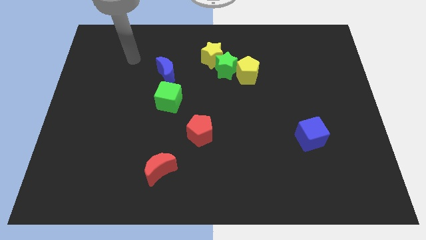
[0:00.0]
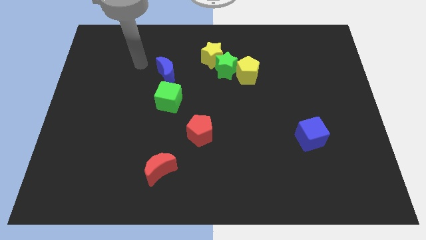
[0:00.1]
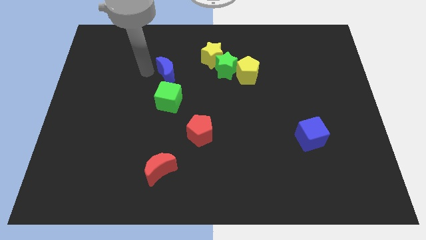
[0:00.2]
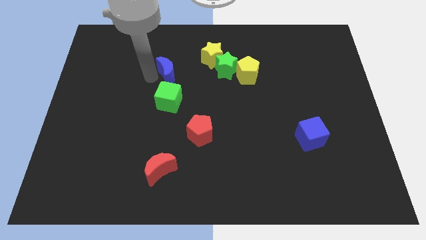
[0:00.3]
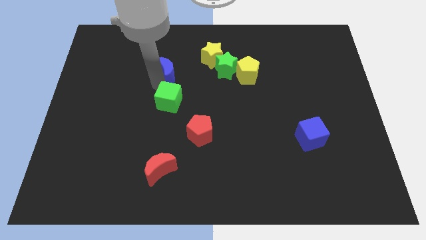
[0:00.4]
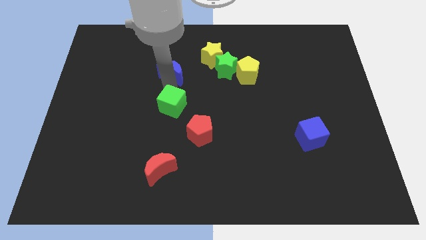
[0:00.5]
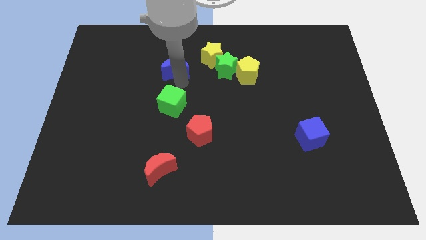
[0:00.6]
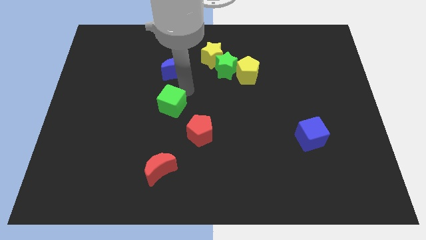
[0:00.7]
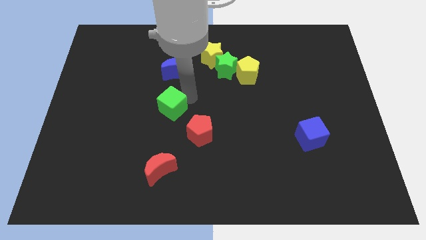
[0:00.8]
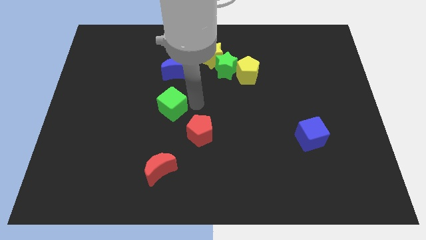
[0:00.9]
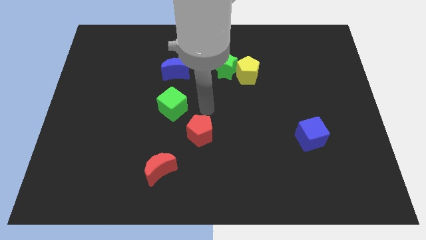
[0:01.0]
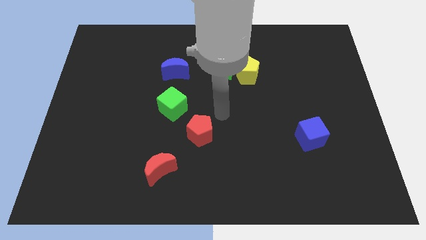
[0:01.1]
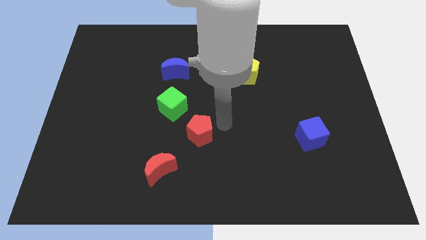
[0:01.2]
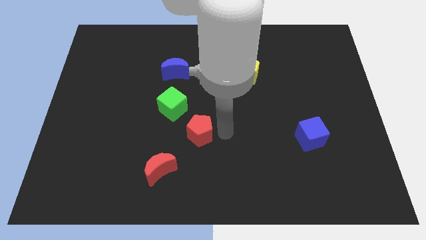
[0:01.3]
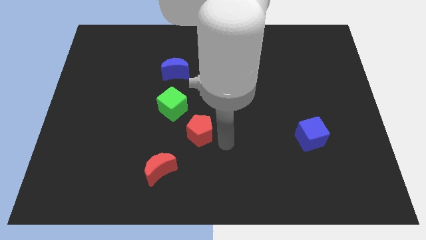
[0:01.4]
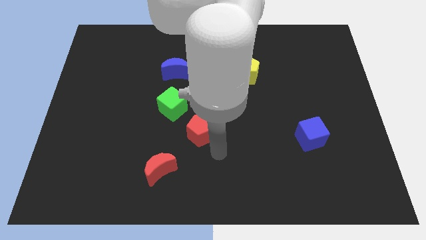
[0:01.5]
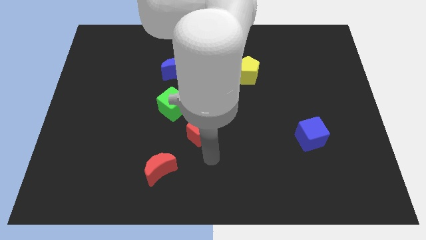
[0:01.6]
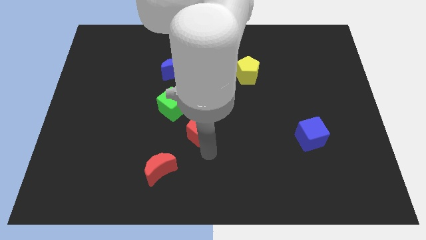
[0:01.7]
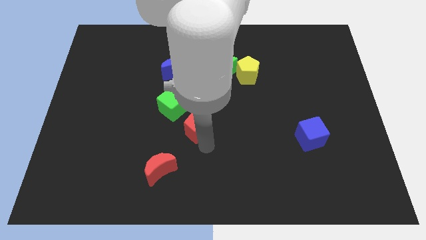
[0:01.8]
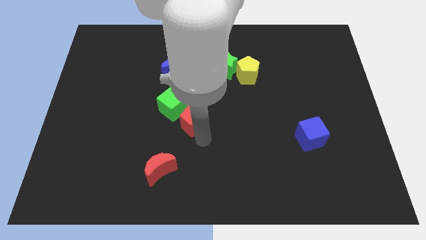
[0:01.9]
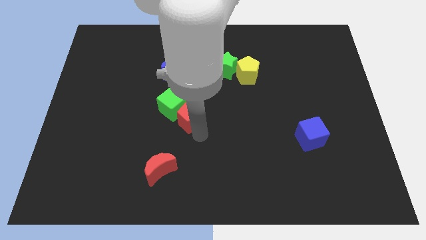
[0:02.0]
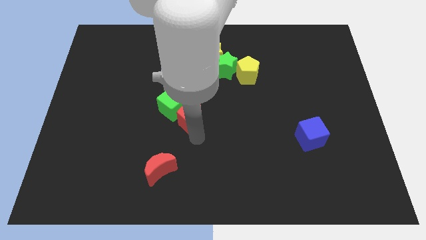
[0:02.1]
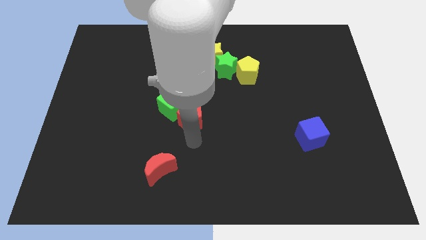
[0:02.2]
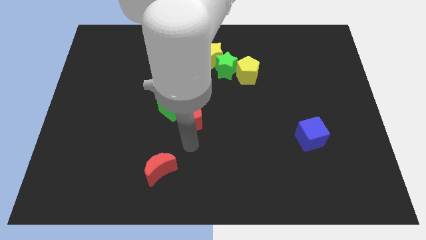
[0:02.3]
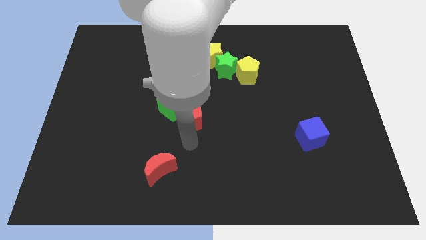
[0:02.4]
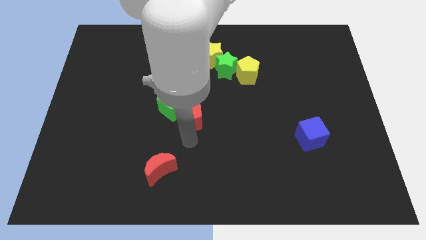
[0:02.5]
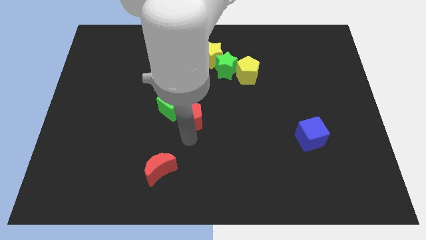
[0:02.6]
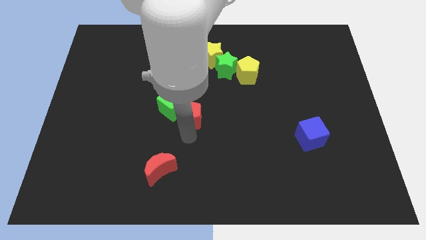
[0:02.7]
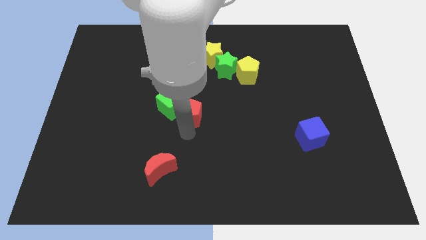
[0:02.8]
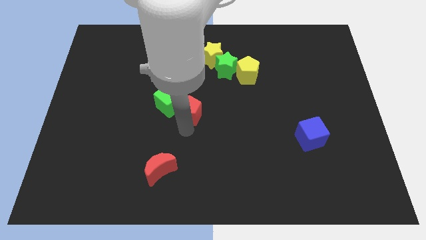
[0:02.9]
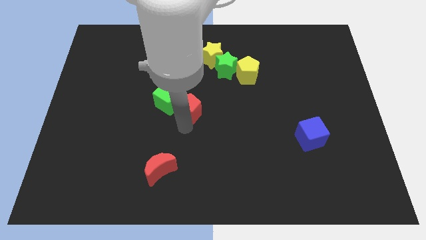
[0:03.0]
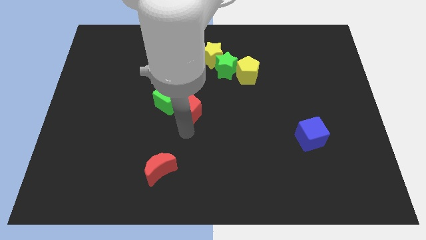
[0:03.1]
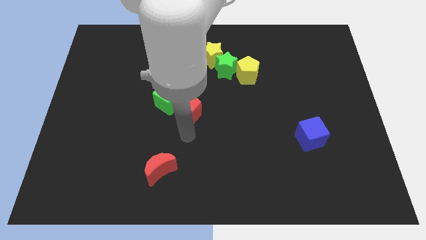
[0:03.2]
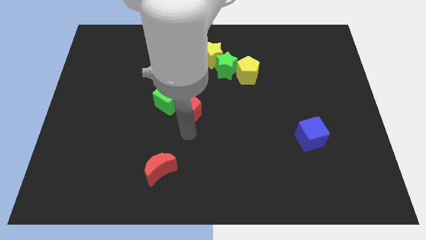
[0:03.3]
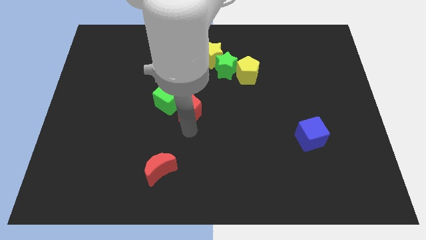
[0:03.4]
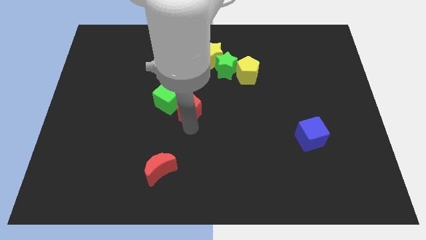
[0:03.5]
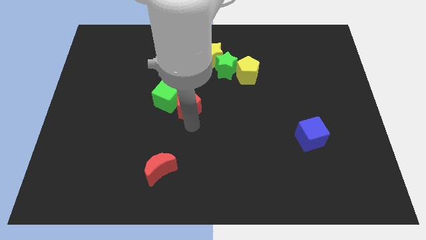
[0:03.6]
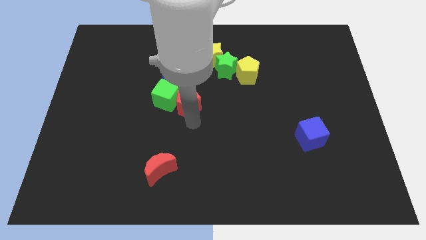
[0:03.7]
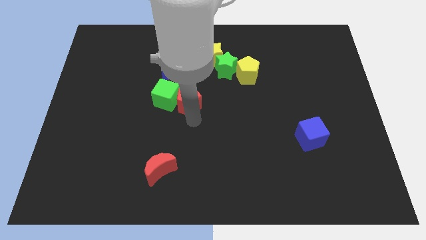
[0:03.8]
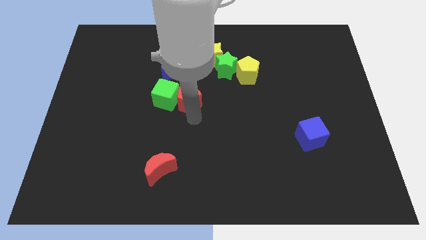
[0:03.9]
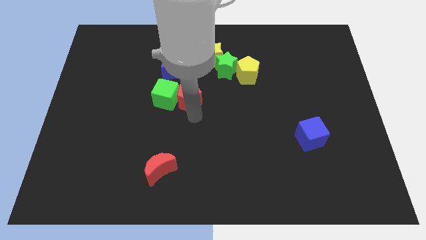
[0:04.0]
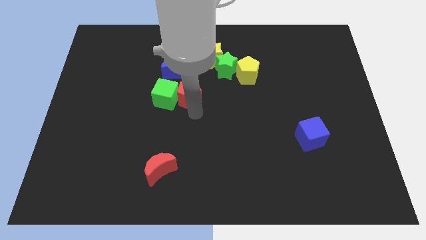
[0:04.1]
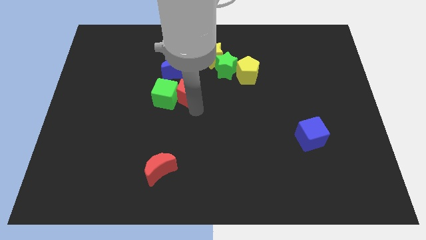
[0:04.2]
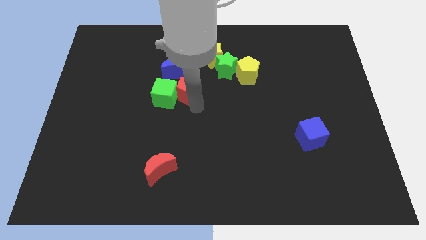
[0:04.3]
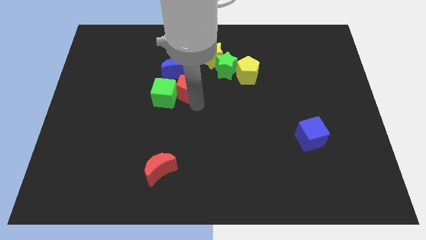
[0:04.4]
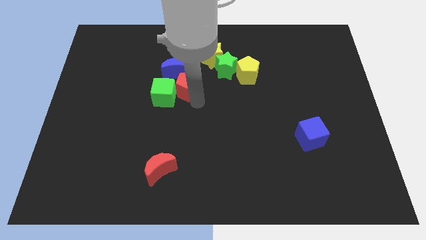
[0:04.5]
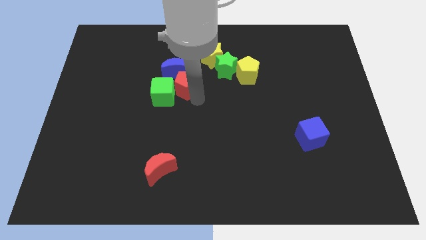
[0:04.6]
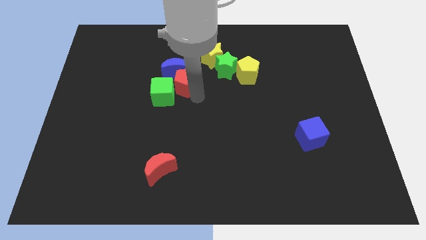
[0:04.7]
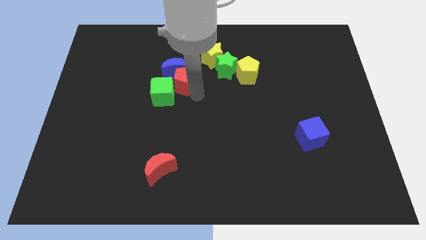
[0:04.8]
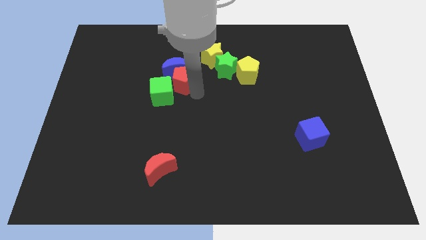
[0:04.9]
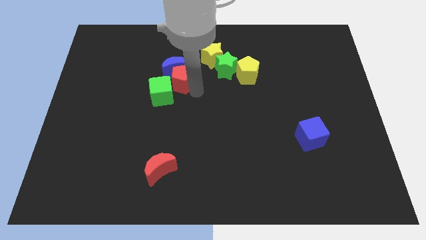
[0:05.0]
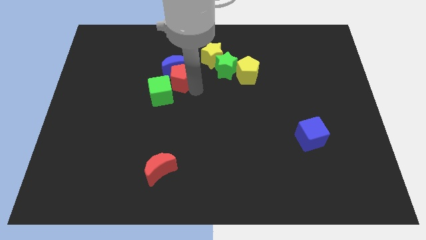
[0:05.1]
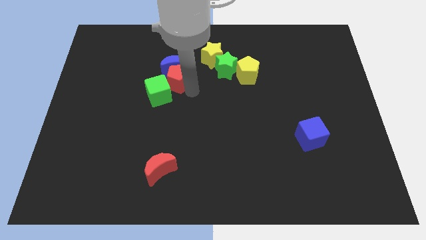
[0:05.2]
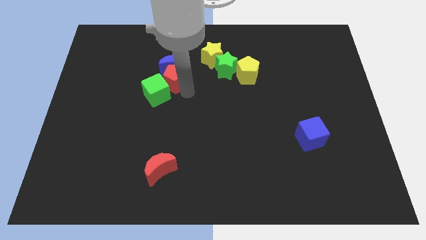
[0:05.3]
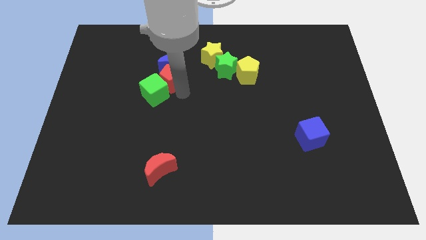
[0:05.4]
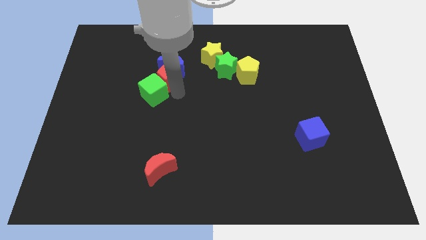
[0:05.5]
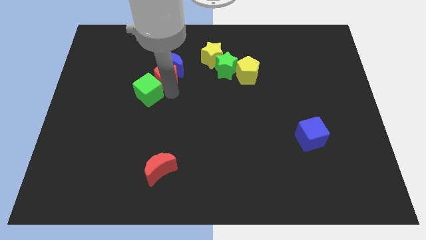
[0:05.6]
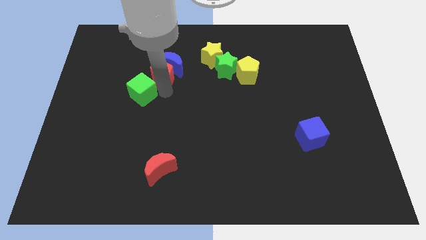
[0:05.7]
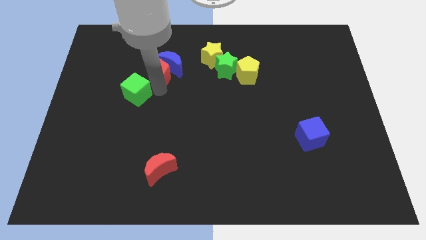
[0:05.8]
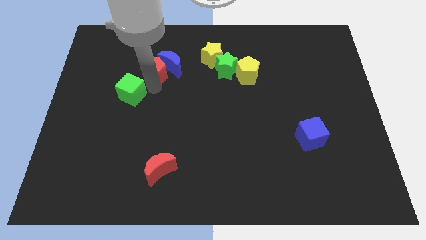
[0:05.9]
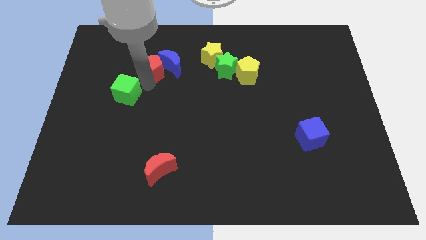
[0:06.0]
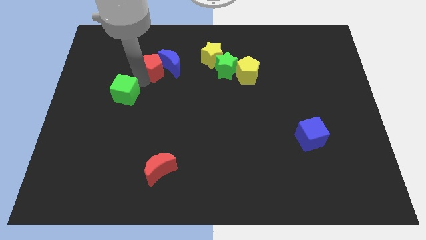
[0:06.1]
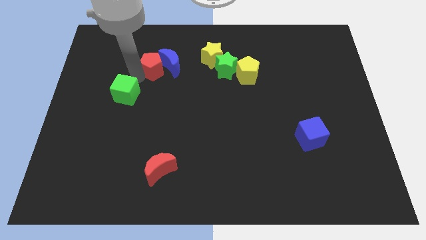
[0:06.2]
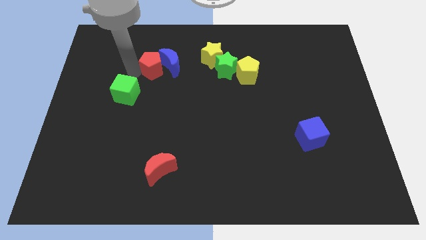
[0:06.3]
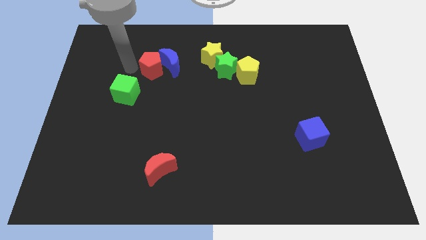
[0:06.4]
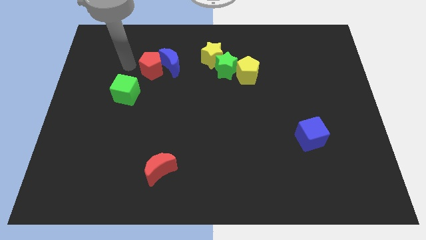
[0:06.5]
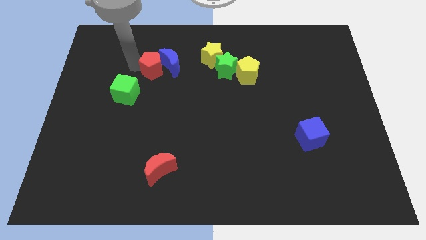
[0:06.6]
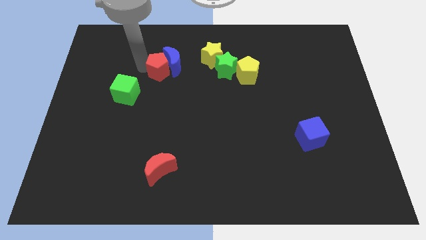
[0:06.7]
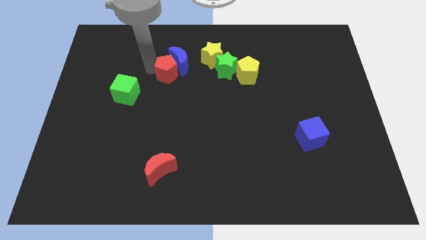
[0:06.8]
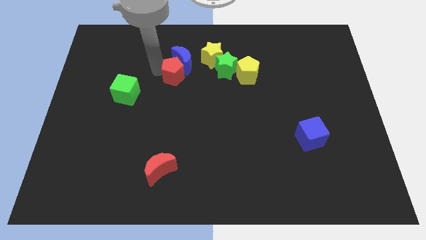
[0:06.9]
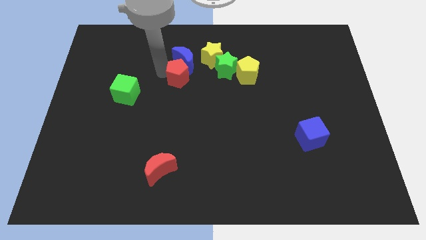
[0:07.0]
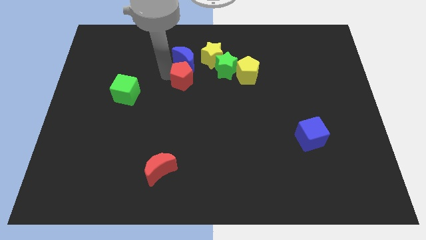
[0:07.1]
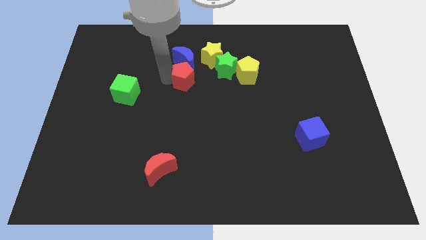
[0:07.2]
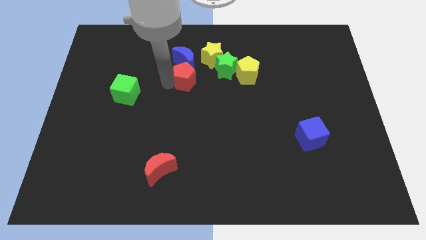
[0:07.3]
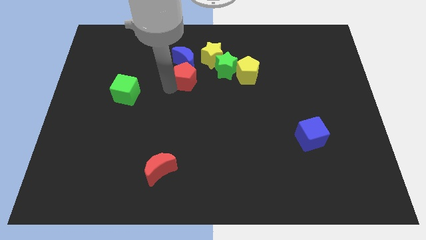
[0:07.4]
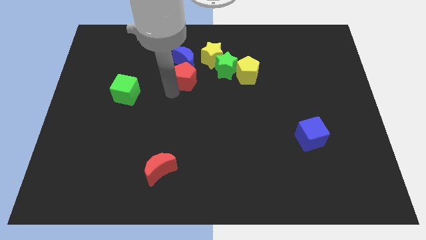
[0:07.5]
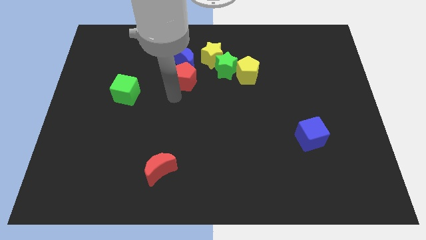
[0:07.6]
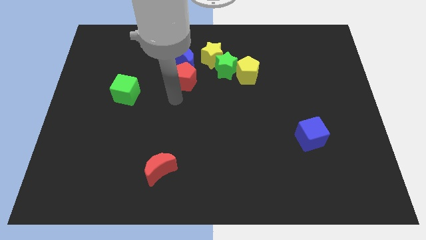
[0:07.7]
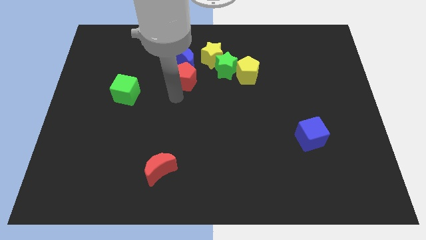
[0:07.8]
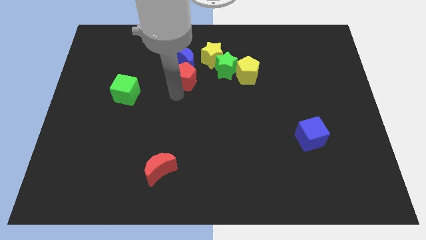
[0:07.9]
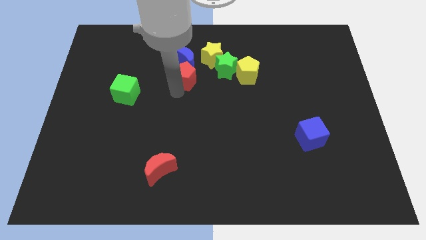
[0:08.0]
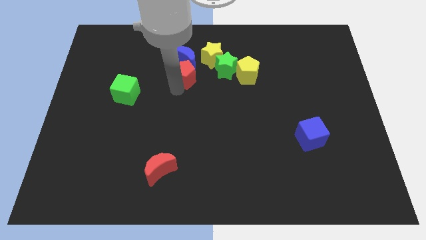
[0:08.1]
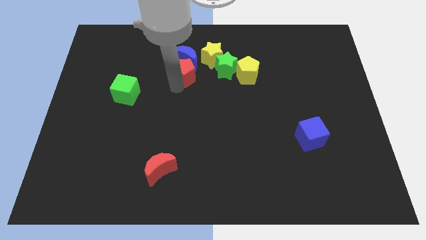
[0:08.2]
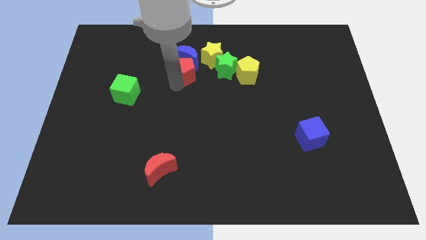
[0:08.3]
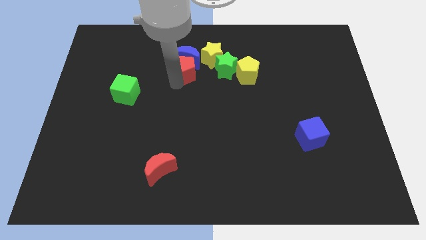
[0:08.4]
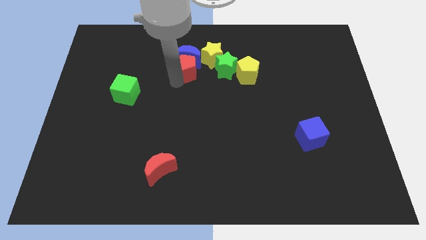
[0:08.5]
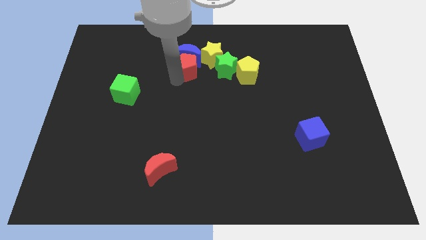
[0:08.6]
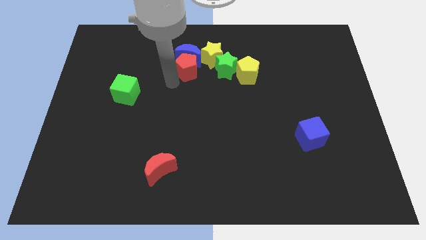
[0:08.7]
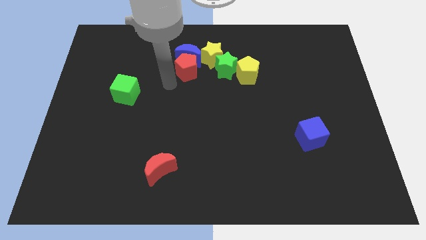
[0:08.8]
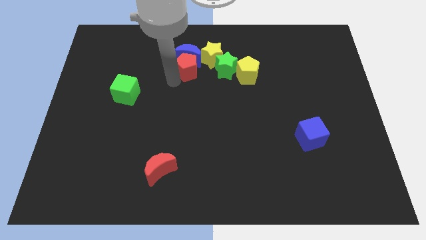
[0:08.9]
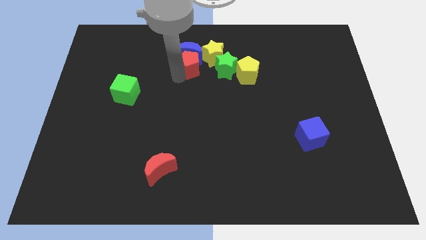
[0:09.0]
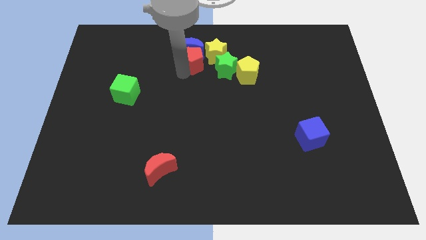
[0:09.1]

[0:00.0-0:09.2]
push the red pentagon to the top left side of the green star
